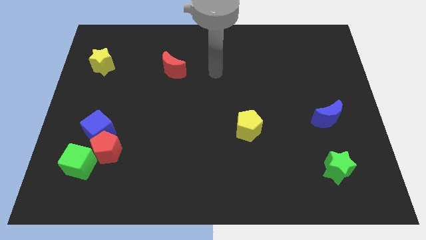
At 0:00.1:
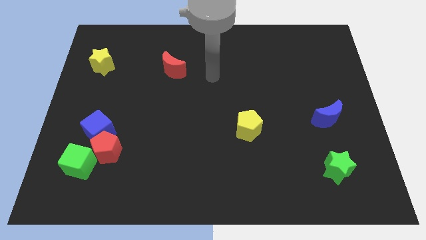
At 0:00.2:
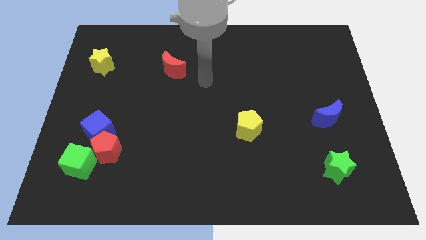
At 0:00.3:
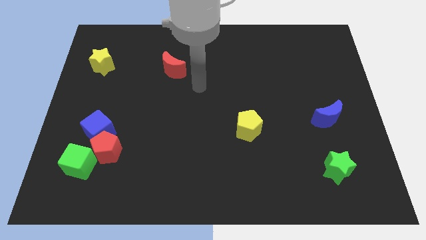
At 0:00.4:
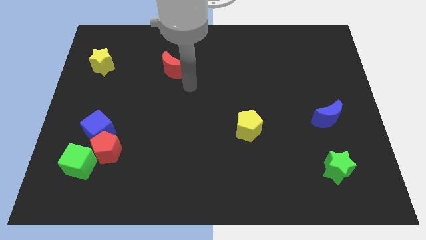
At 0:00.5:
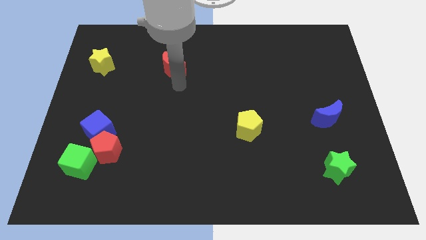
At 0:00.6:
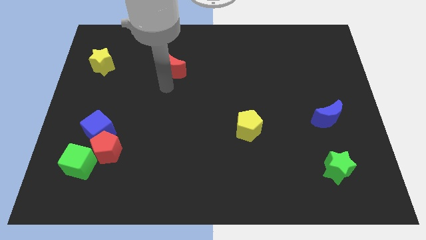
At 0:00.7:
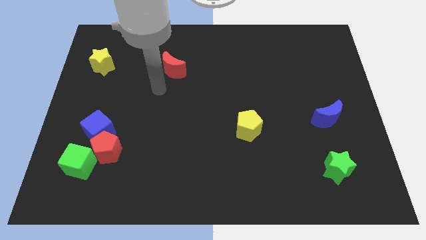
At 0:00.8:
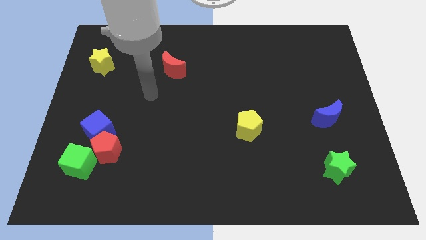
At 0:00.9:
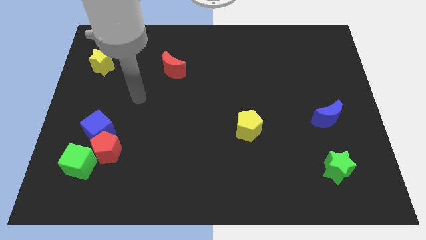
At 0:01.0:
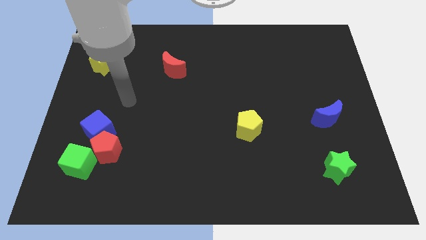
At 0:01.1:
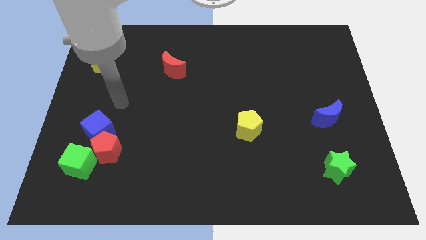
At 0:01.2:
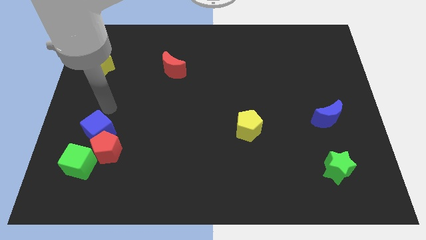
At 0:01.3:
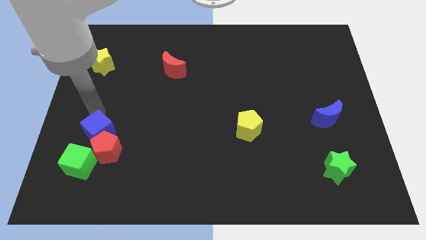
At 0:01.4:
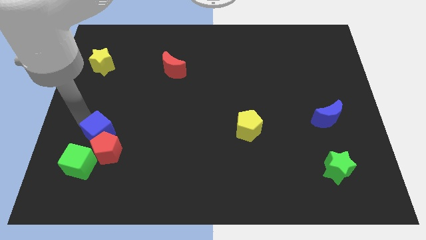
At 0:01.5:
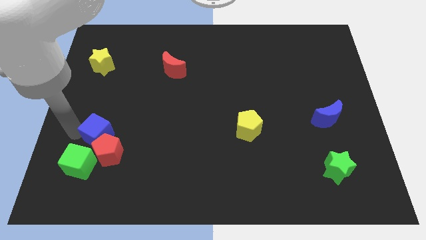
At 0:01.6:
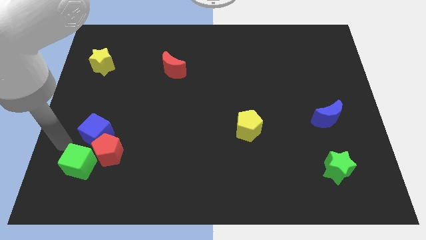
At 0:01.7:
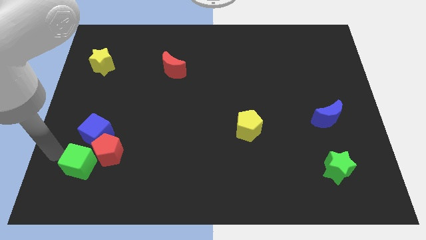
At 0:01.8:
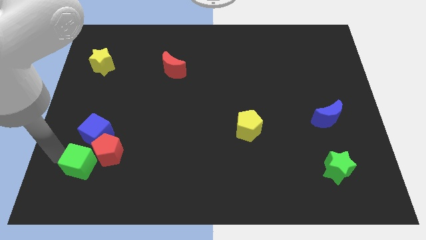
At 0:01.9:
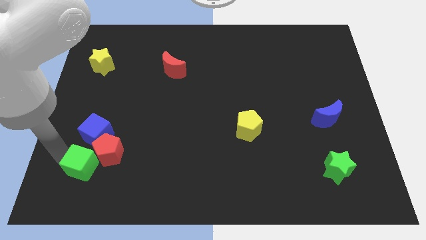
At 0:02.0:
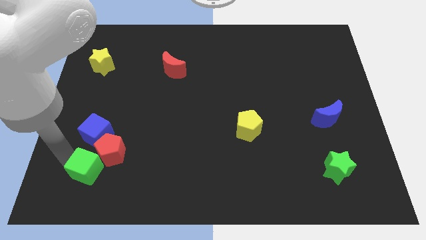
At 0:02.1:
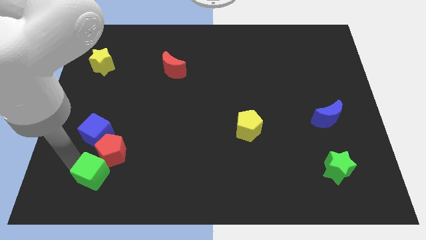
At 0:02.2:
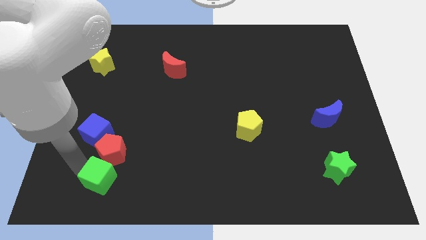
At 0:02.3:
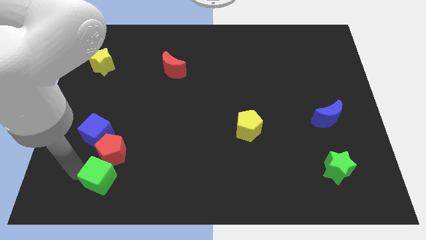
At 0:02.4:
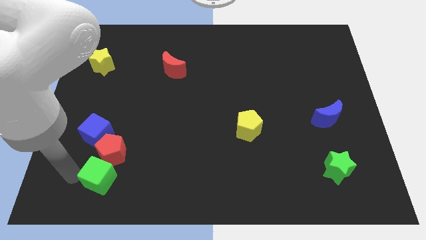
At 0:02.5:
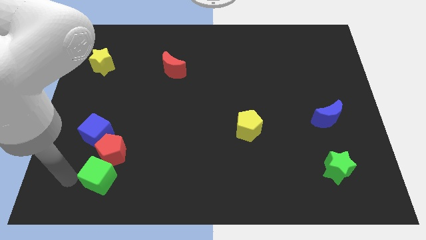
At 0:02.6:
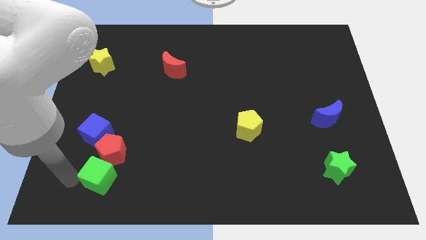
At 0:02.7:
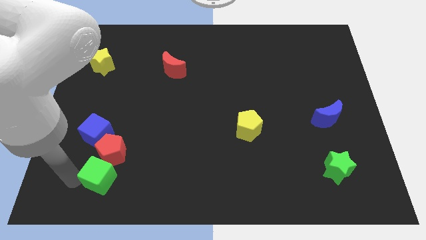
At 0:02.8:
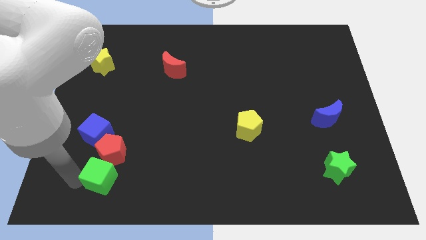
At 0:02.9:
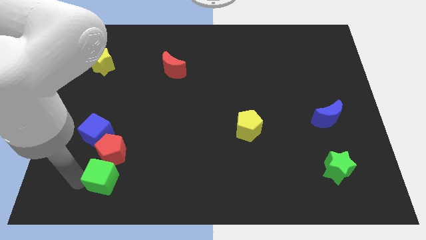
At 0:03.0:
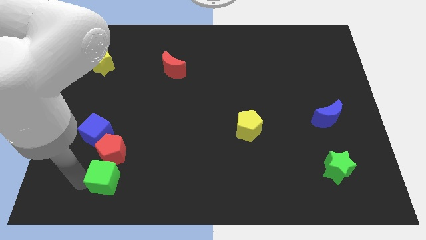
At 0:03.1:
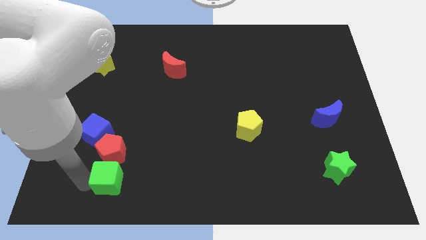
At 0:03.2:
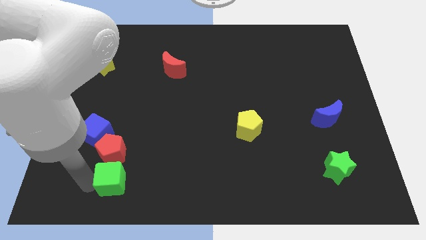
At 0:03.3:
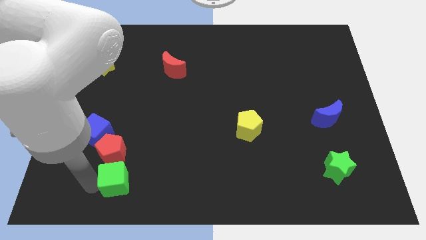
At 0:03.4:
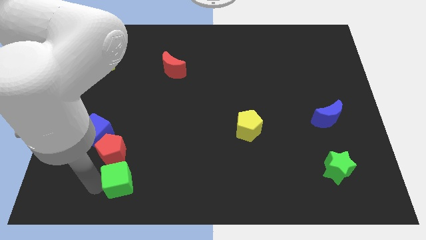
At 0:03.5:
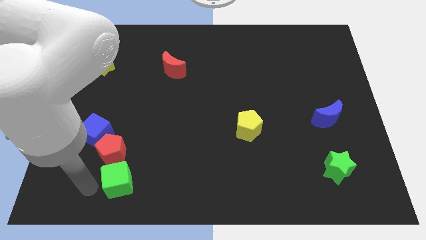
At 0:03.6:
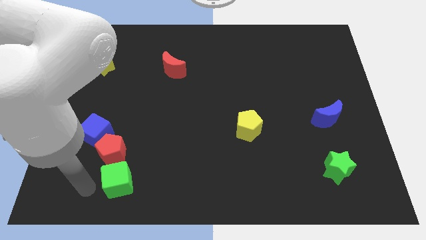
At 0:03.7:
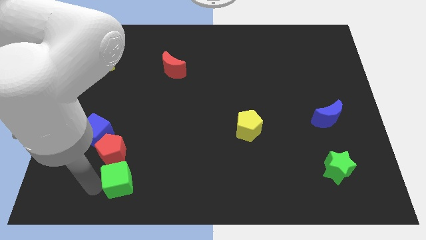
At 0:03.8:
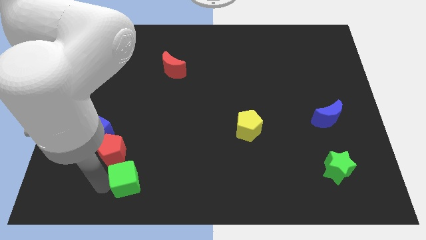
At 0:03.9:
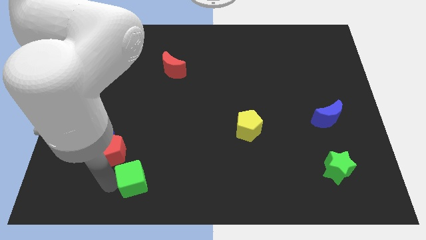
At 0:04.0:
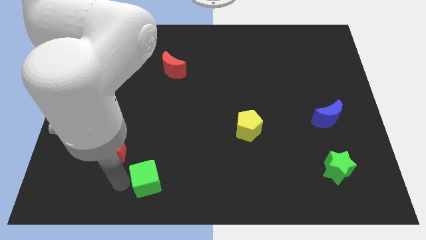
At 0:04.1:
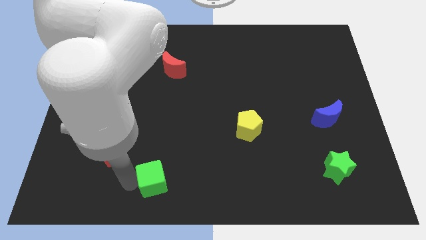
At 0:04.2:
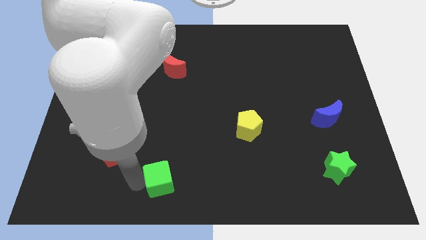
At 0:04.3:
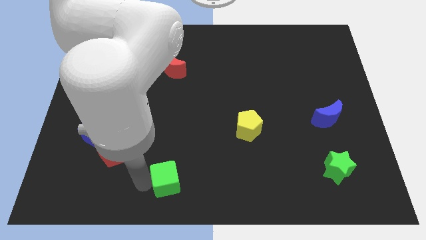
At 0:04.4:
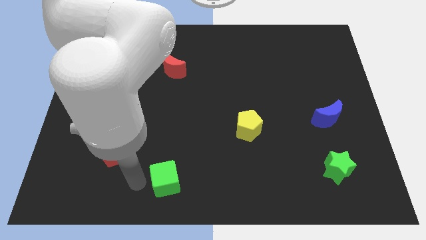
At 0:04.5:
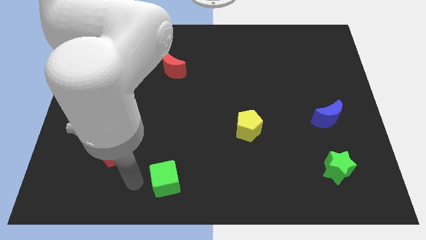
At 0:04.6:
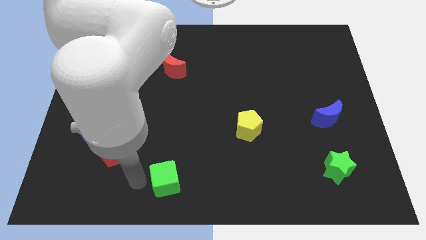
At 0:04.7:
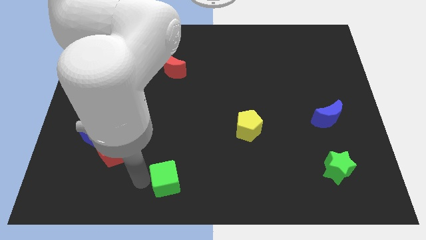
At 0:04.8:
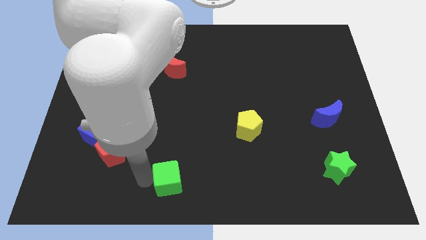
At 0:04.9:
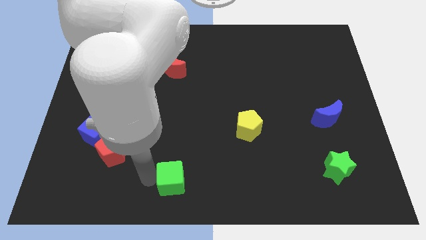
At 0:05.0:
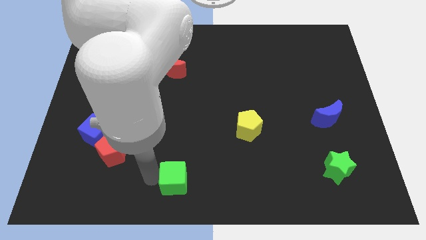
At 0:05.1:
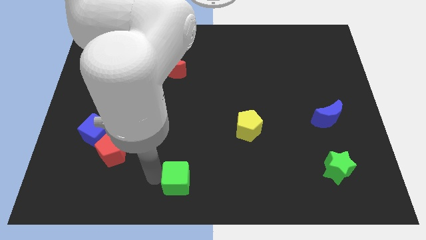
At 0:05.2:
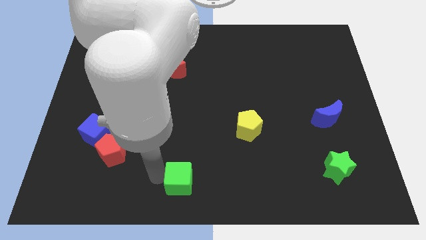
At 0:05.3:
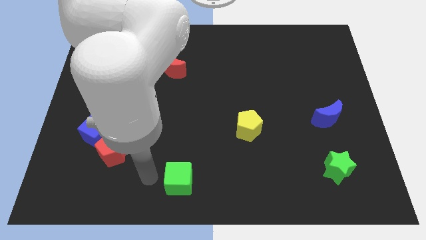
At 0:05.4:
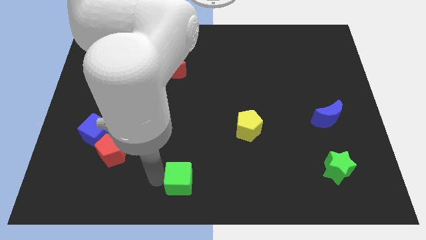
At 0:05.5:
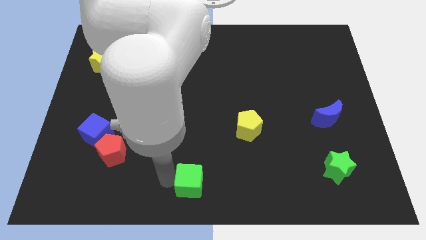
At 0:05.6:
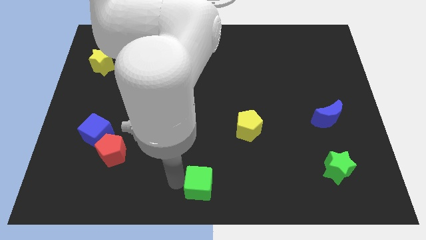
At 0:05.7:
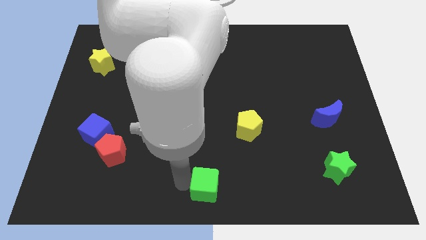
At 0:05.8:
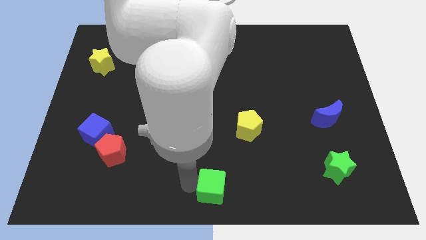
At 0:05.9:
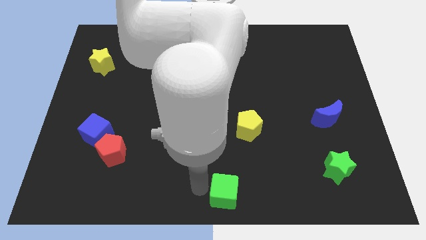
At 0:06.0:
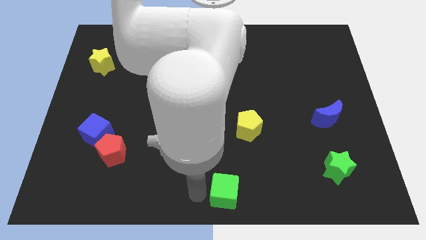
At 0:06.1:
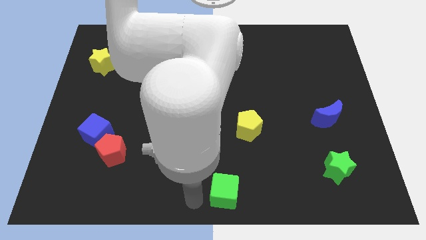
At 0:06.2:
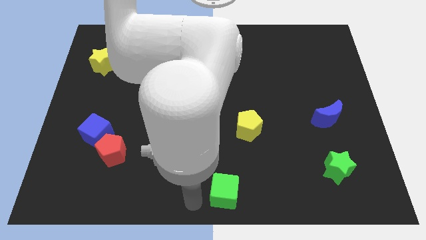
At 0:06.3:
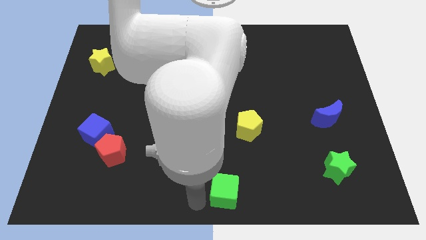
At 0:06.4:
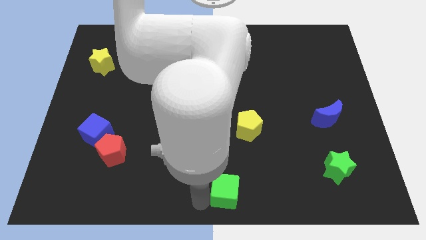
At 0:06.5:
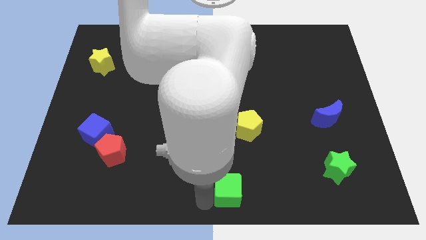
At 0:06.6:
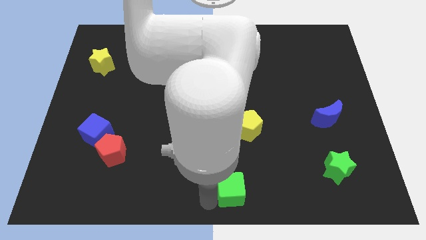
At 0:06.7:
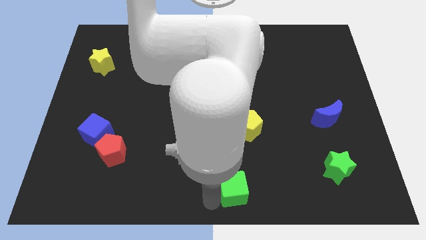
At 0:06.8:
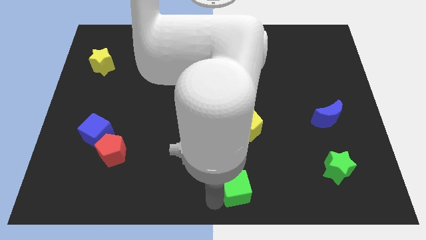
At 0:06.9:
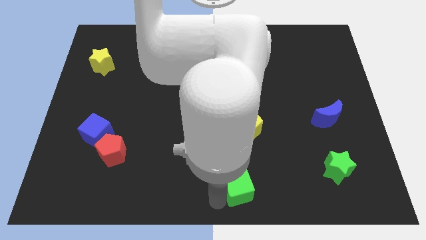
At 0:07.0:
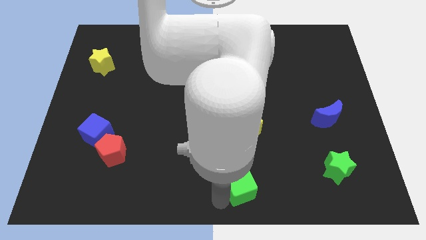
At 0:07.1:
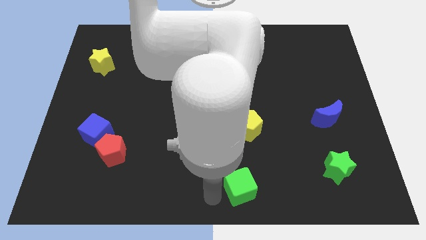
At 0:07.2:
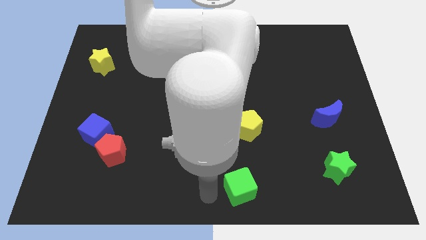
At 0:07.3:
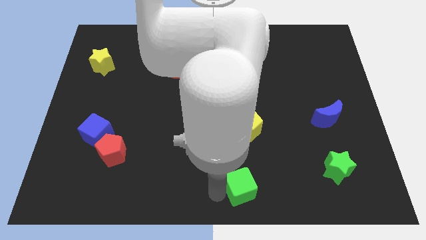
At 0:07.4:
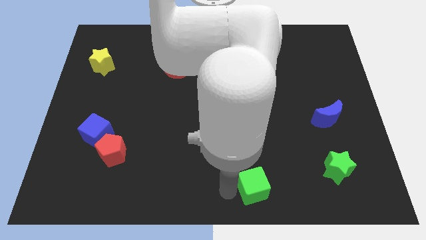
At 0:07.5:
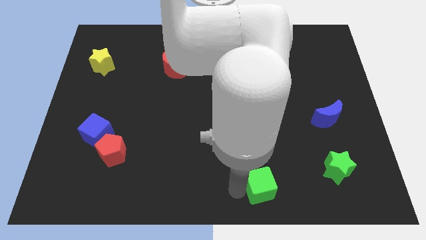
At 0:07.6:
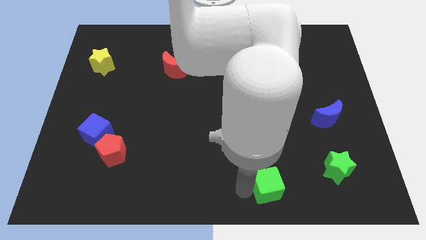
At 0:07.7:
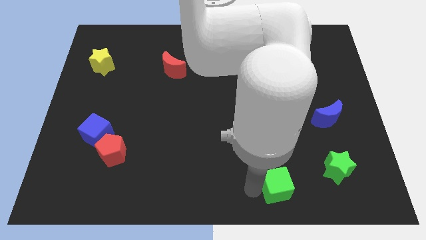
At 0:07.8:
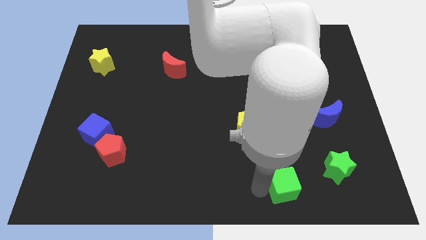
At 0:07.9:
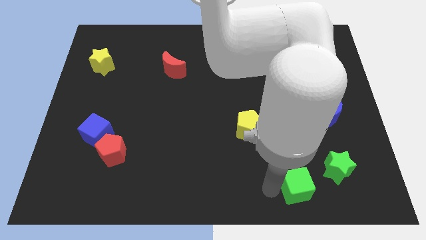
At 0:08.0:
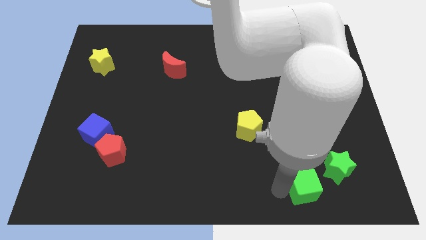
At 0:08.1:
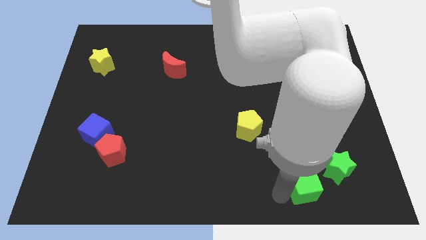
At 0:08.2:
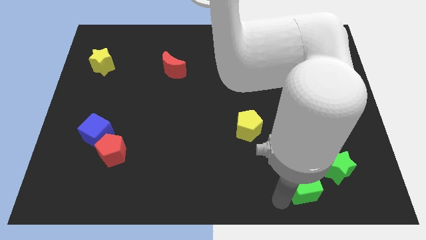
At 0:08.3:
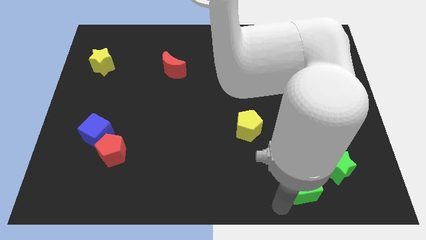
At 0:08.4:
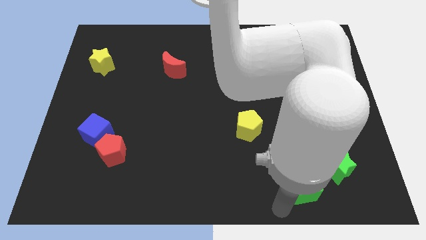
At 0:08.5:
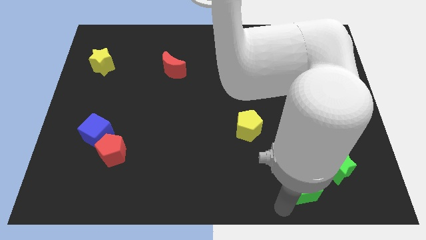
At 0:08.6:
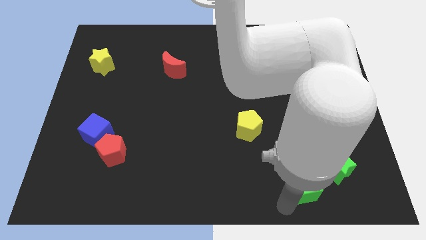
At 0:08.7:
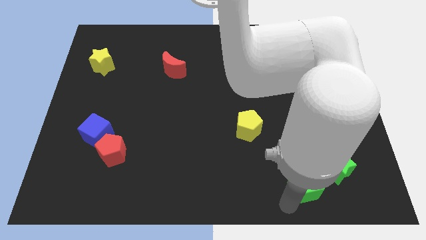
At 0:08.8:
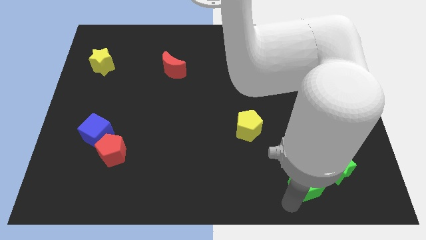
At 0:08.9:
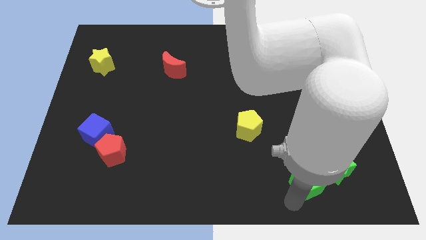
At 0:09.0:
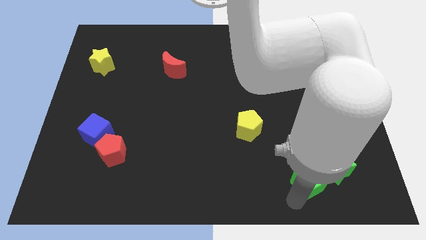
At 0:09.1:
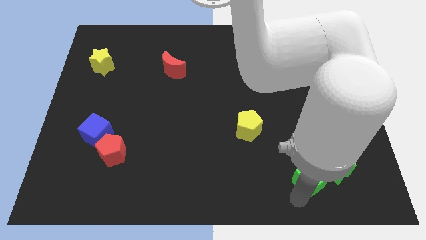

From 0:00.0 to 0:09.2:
push the green cube to the green star
